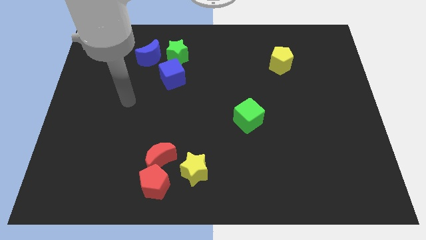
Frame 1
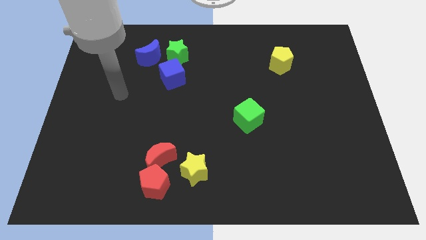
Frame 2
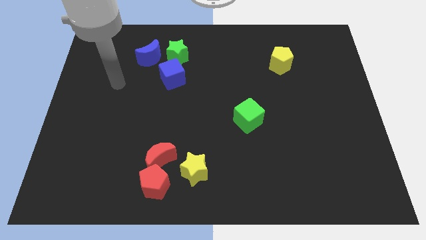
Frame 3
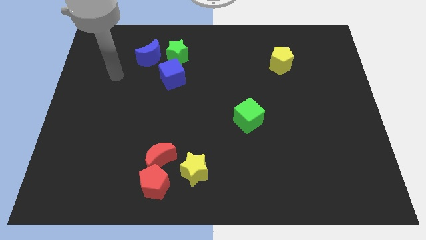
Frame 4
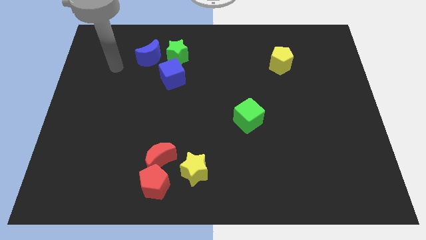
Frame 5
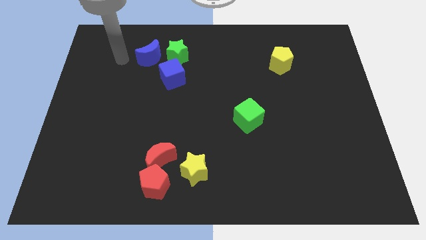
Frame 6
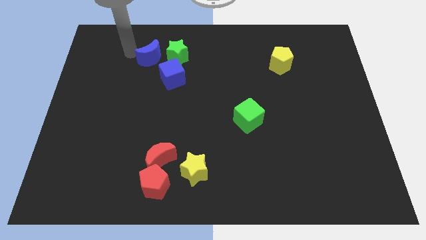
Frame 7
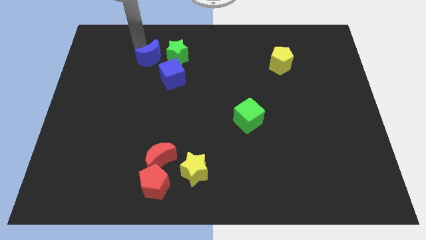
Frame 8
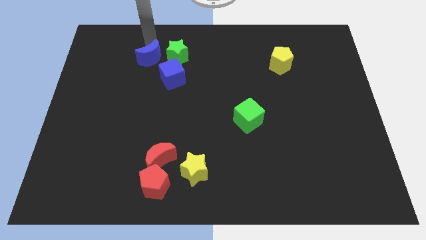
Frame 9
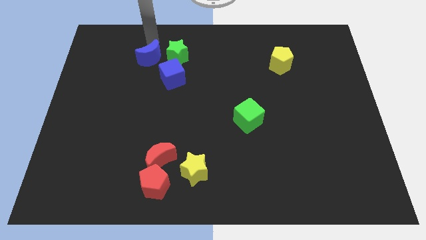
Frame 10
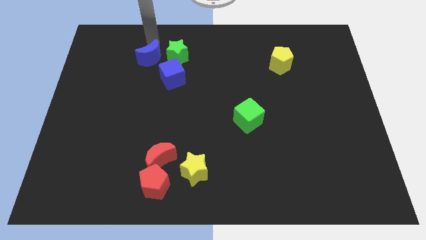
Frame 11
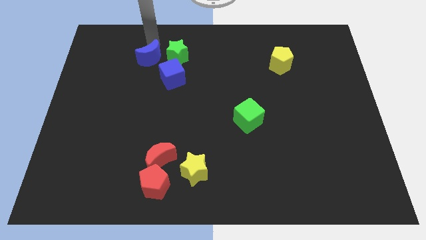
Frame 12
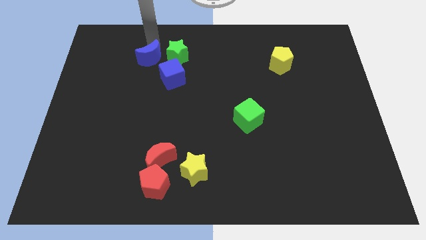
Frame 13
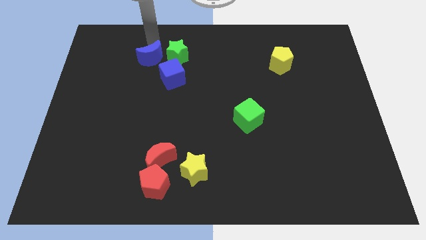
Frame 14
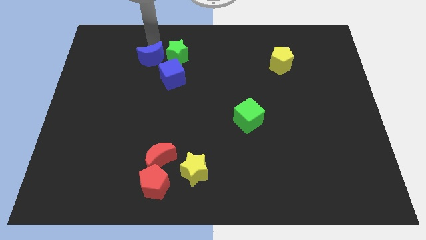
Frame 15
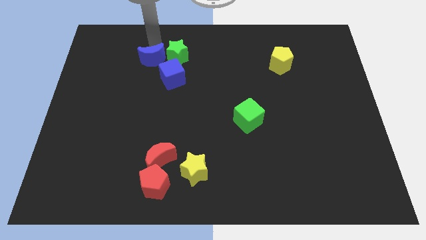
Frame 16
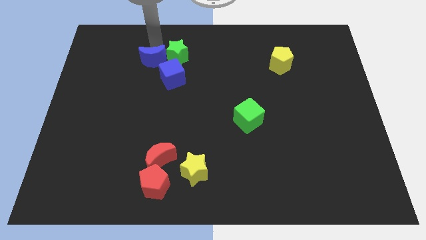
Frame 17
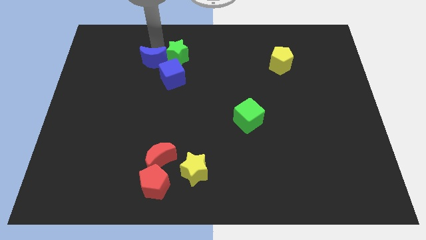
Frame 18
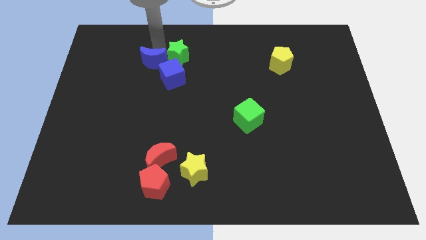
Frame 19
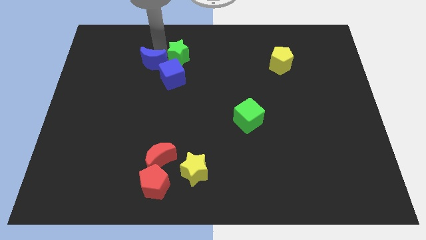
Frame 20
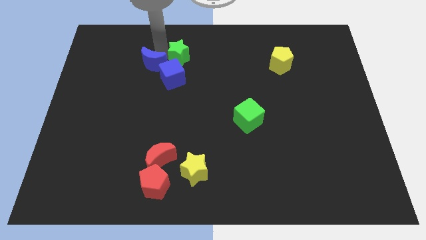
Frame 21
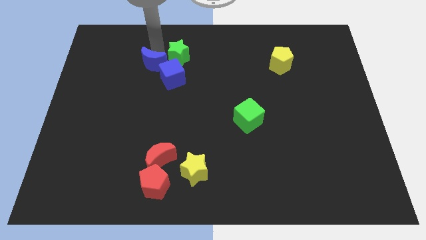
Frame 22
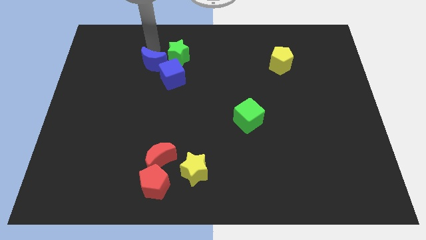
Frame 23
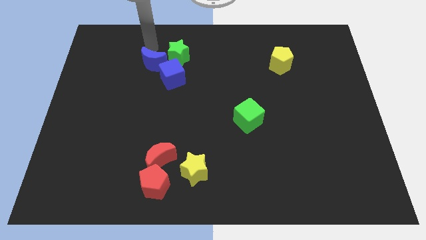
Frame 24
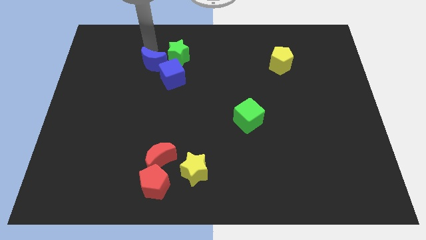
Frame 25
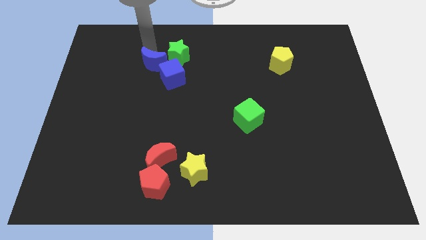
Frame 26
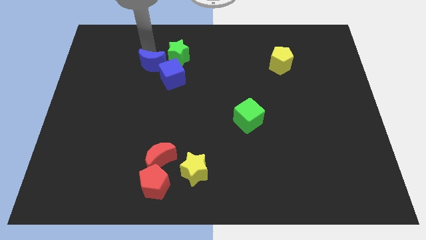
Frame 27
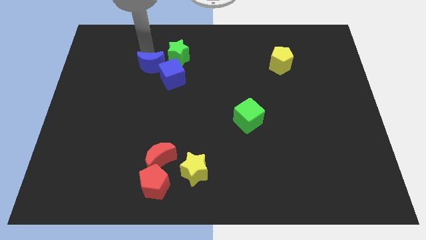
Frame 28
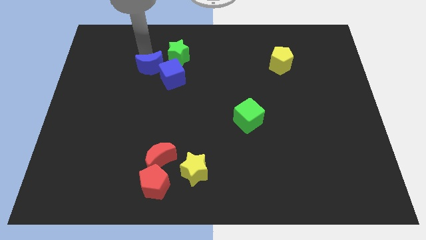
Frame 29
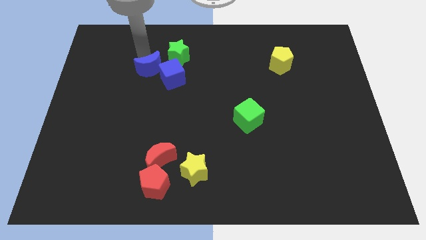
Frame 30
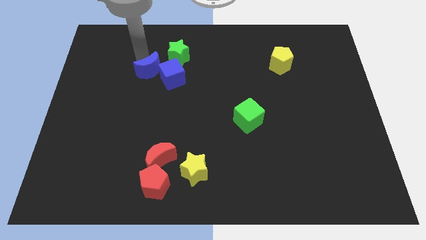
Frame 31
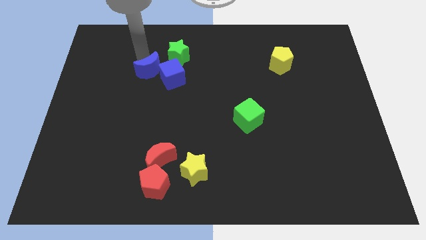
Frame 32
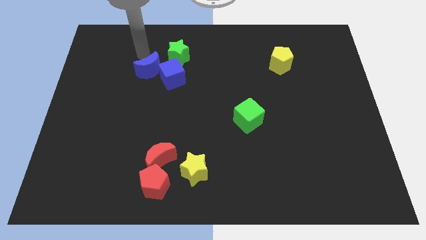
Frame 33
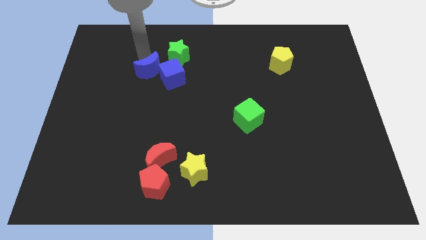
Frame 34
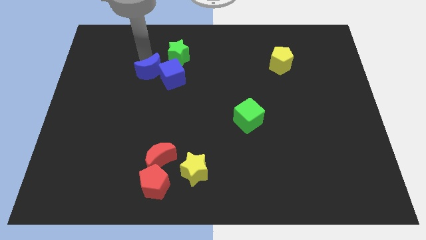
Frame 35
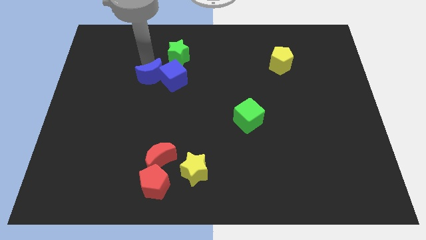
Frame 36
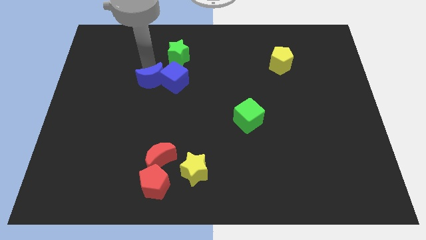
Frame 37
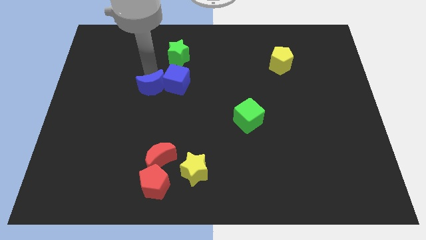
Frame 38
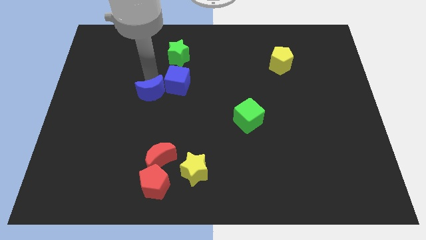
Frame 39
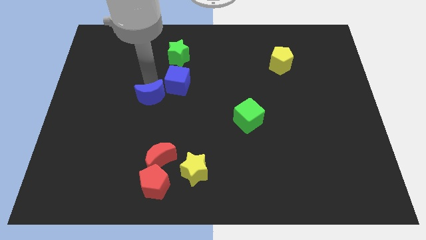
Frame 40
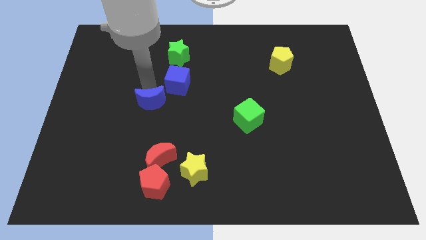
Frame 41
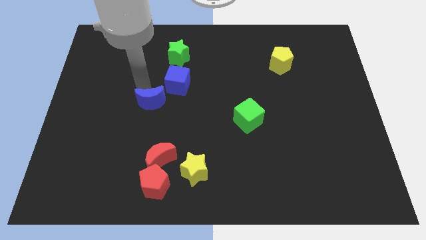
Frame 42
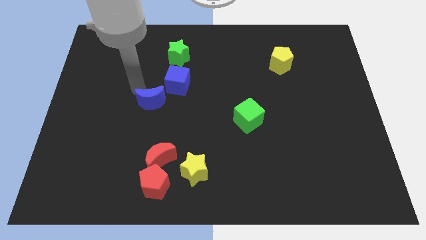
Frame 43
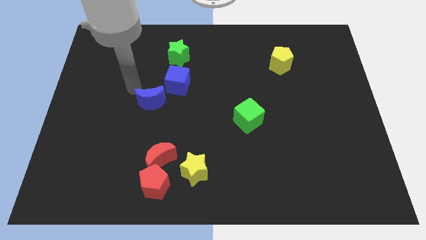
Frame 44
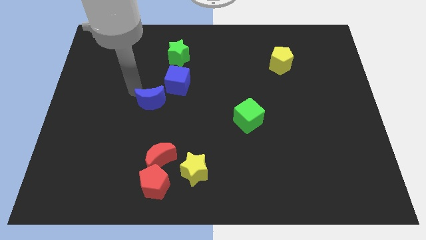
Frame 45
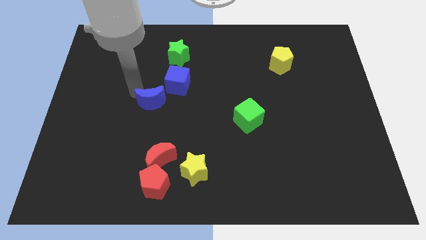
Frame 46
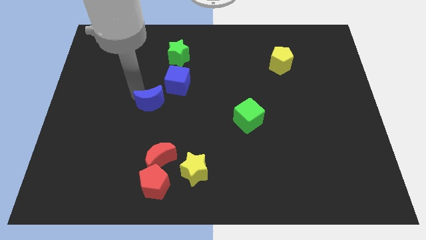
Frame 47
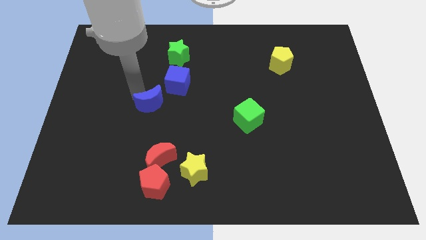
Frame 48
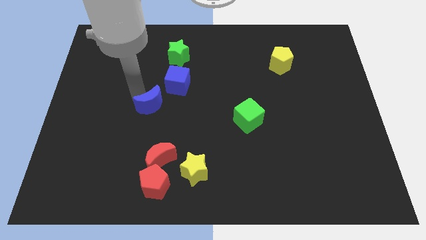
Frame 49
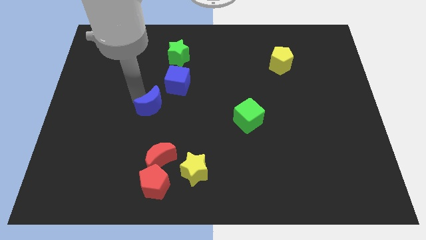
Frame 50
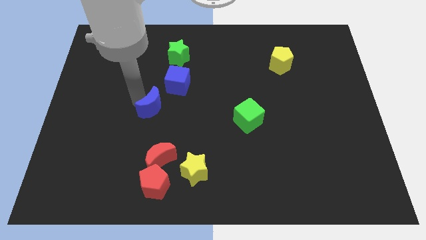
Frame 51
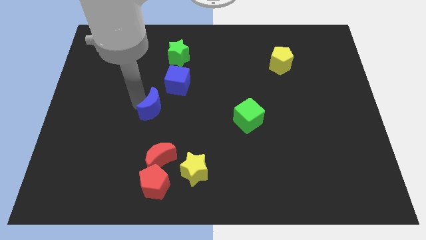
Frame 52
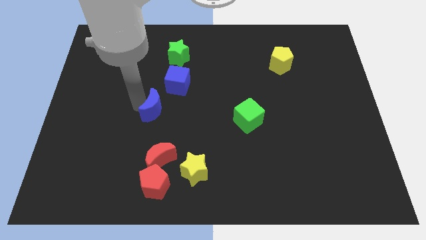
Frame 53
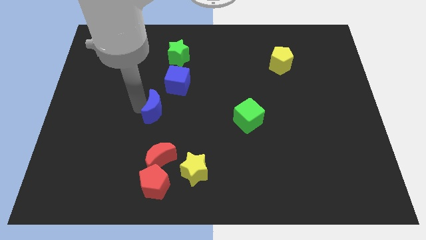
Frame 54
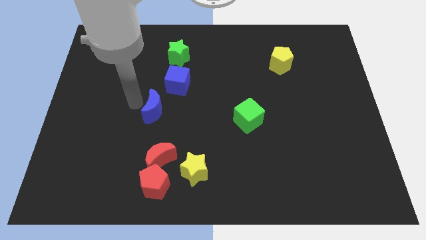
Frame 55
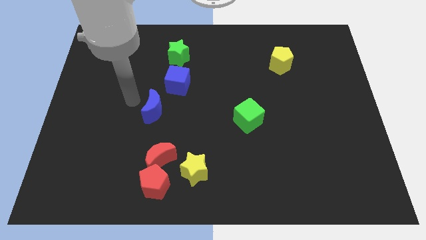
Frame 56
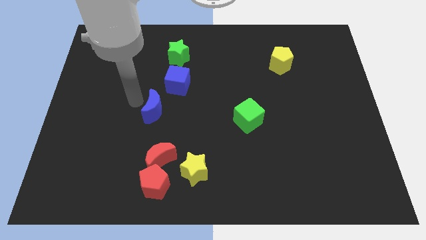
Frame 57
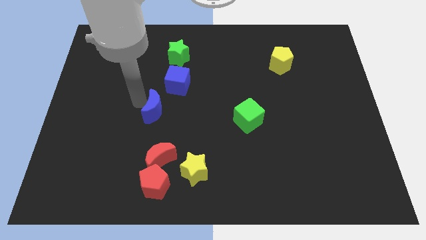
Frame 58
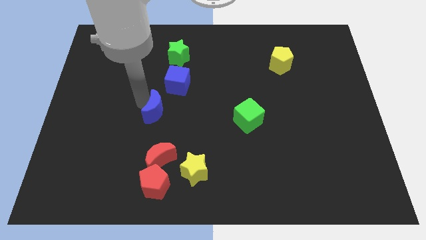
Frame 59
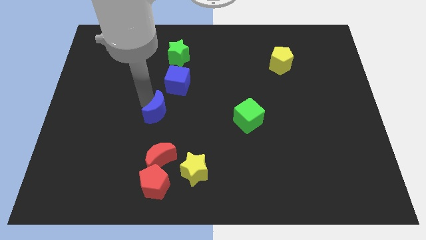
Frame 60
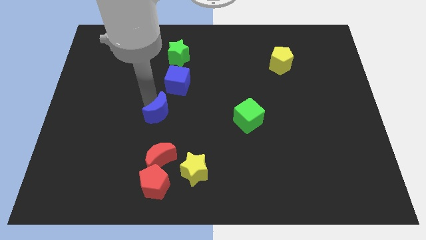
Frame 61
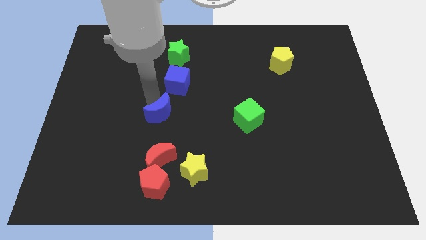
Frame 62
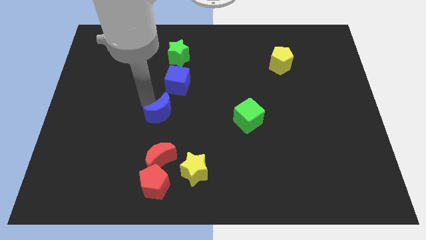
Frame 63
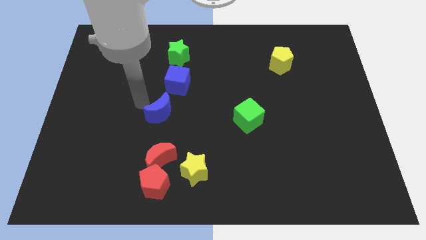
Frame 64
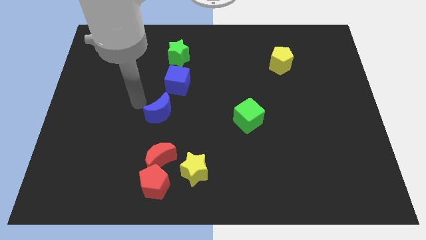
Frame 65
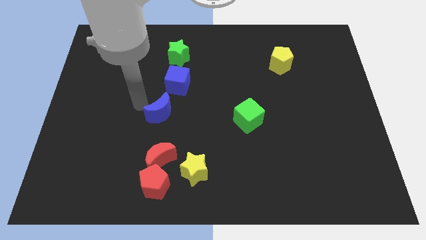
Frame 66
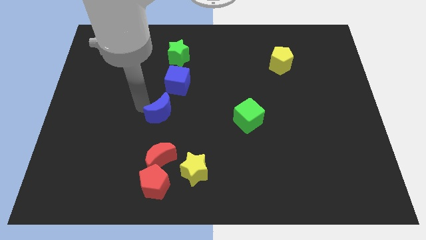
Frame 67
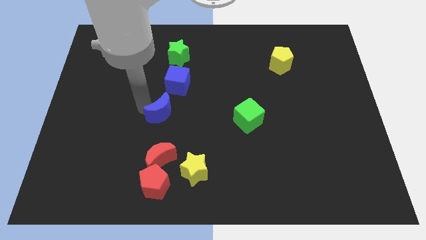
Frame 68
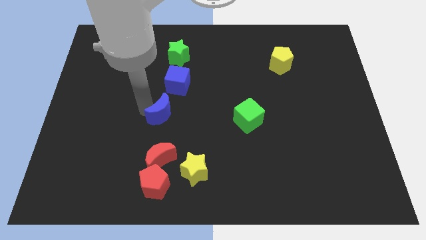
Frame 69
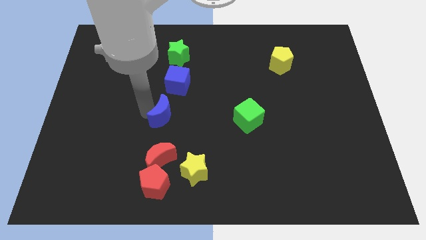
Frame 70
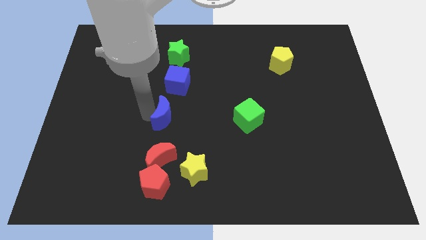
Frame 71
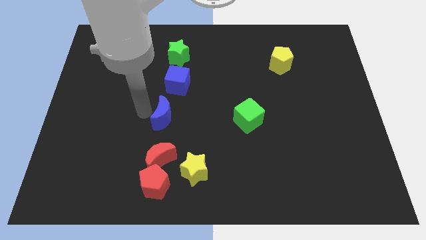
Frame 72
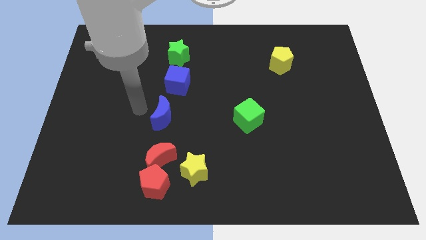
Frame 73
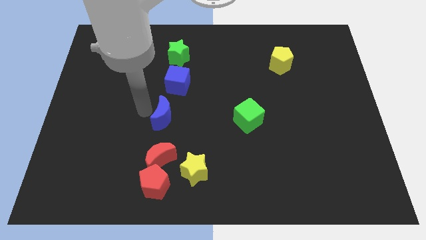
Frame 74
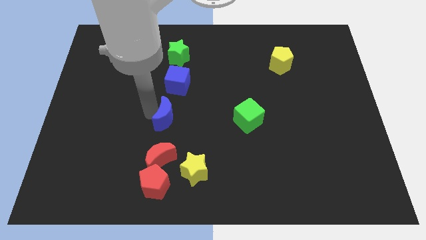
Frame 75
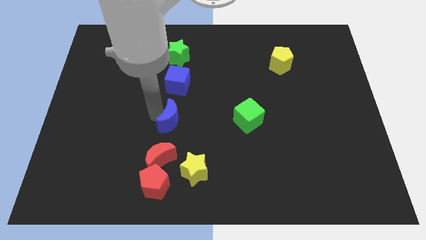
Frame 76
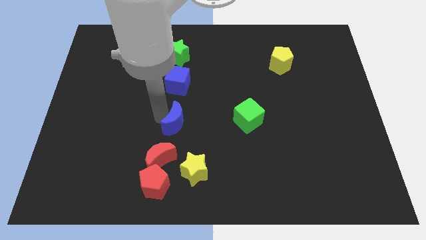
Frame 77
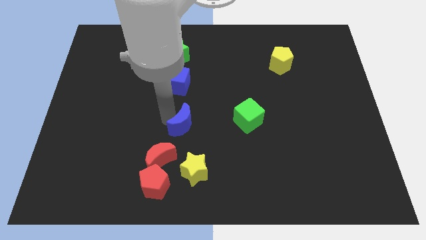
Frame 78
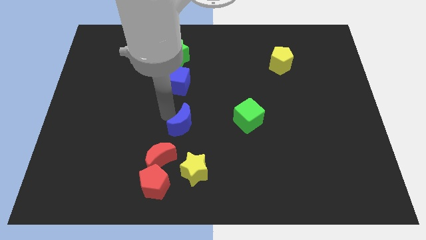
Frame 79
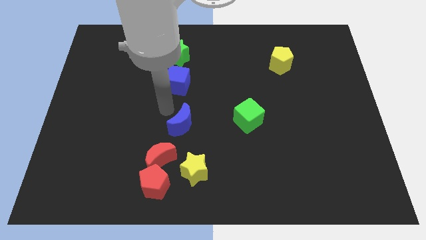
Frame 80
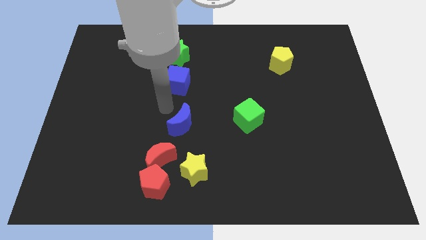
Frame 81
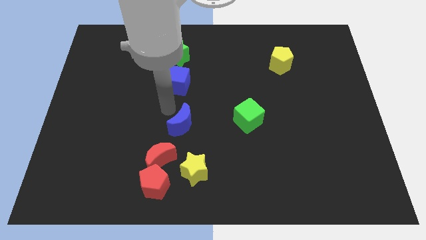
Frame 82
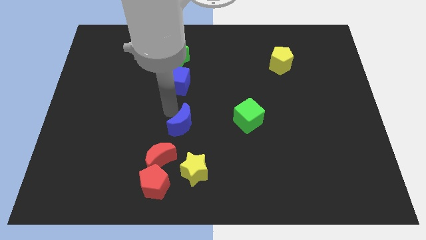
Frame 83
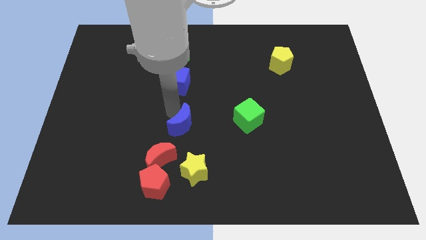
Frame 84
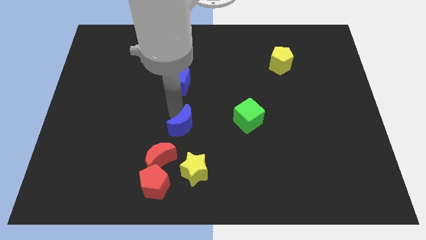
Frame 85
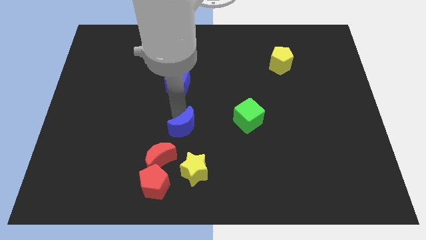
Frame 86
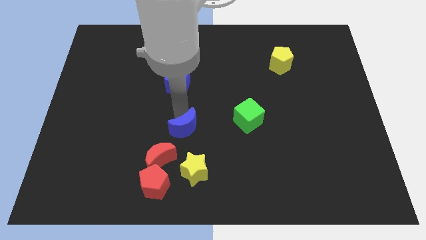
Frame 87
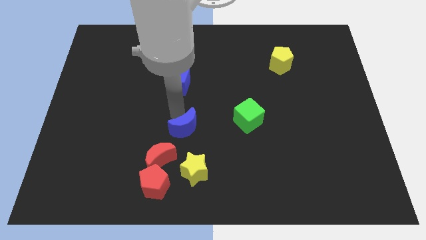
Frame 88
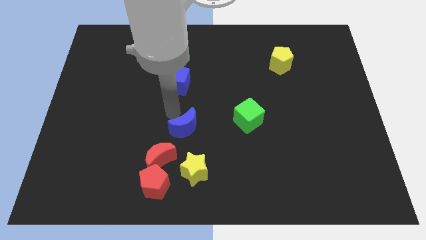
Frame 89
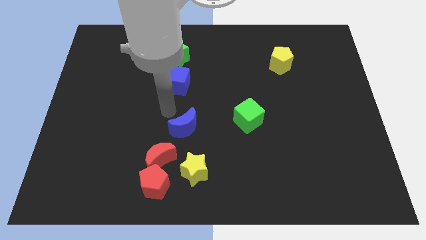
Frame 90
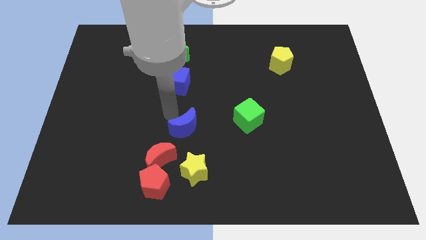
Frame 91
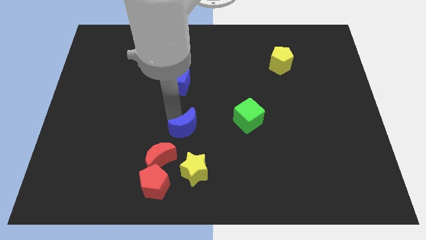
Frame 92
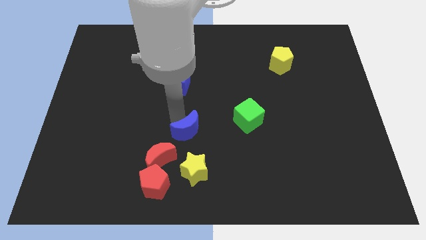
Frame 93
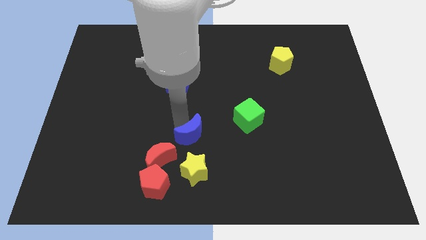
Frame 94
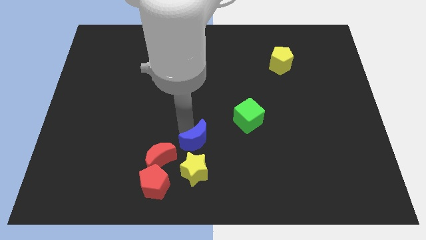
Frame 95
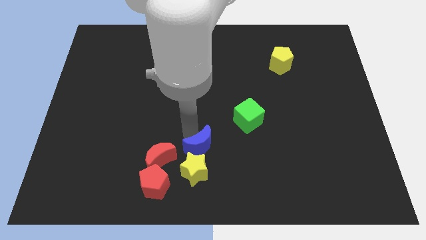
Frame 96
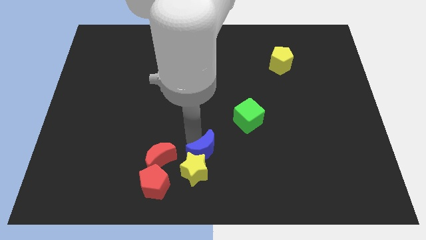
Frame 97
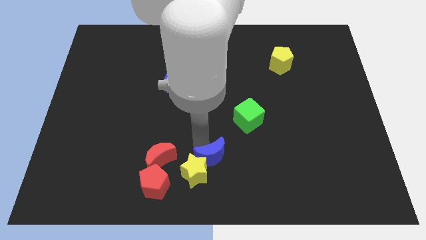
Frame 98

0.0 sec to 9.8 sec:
move the blue moon to the bottom
